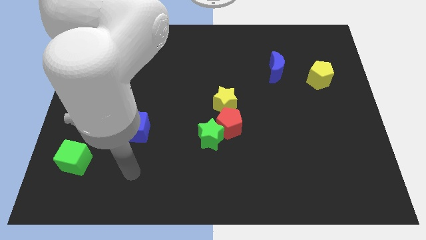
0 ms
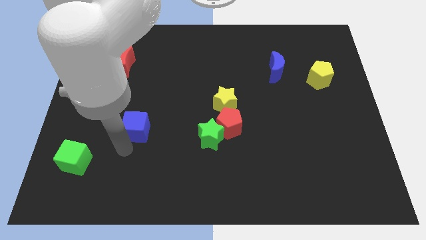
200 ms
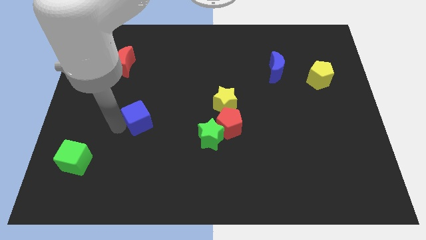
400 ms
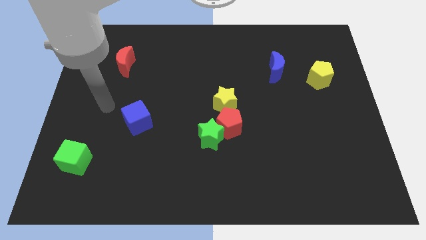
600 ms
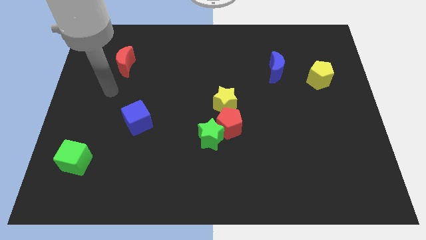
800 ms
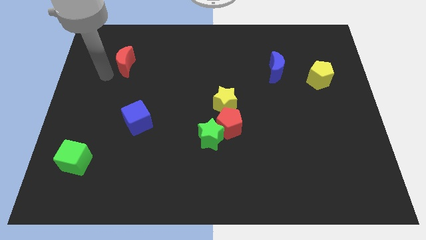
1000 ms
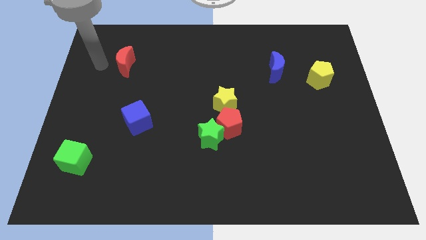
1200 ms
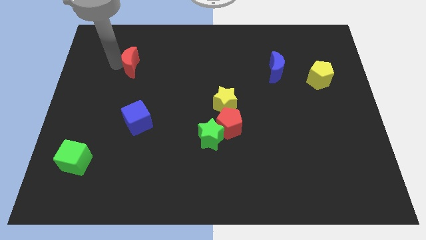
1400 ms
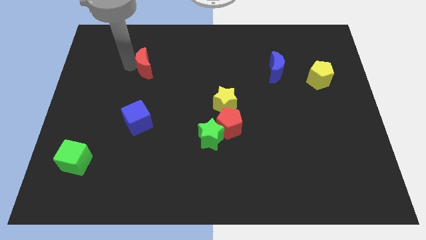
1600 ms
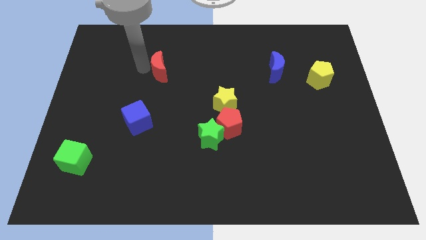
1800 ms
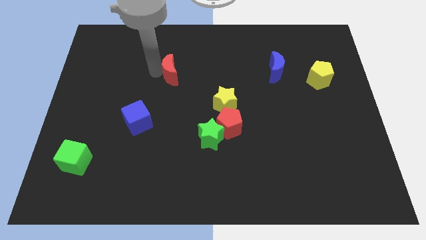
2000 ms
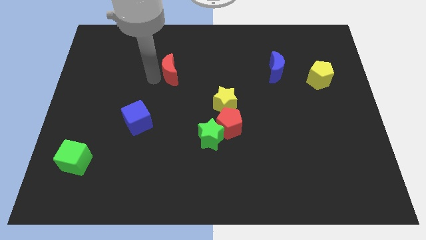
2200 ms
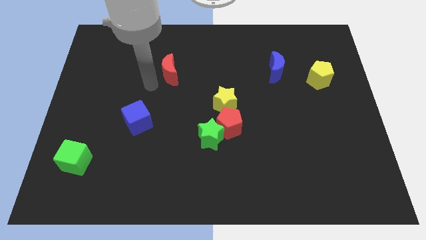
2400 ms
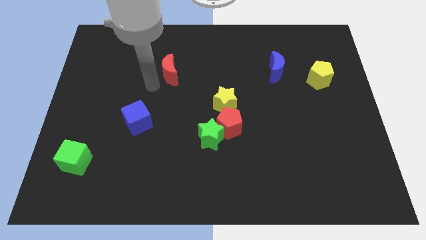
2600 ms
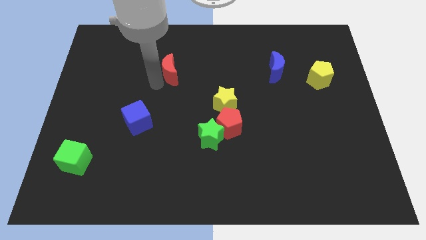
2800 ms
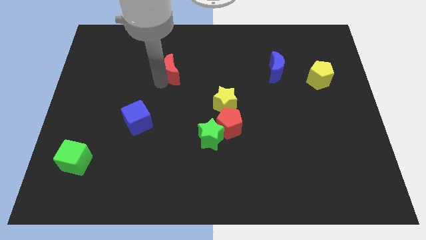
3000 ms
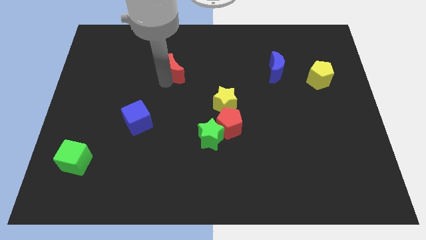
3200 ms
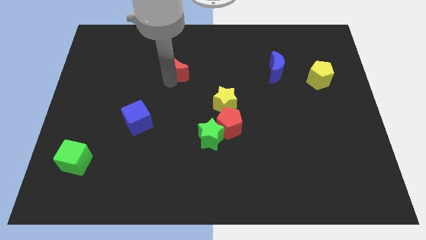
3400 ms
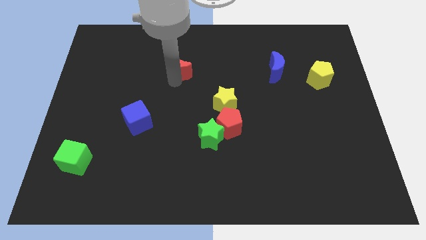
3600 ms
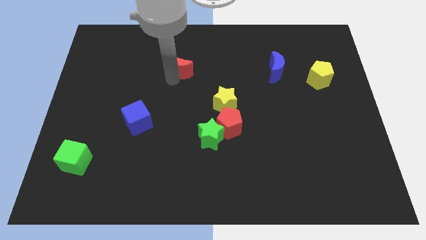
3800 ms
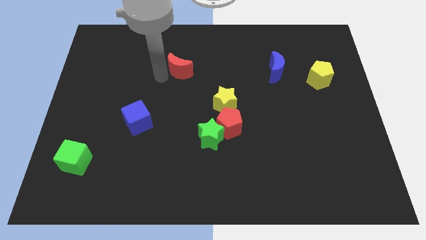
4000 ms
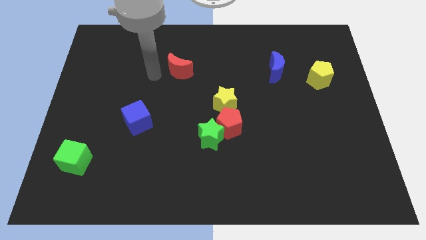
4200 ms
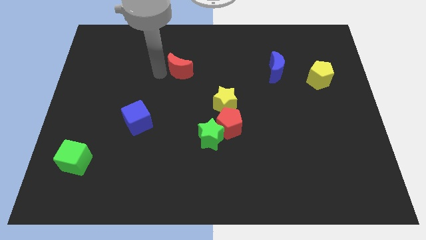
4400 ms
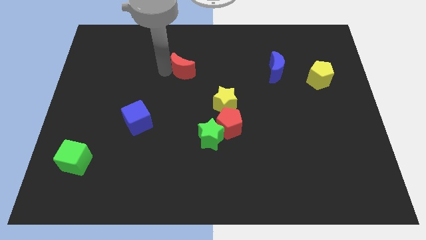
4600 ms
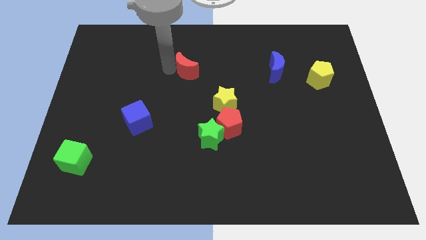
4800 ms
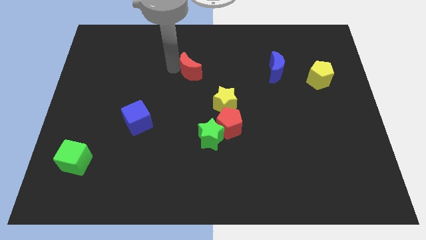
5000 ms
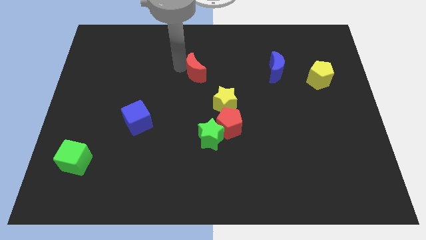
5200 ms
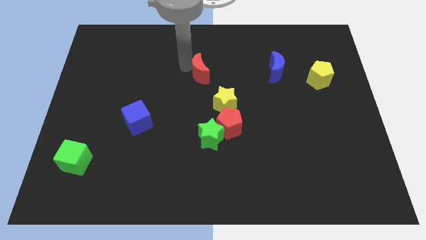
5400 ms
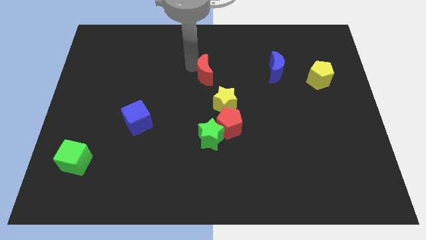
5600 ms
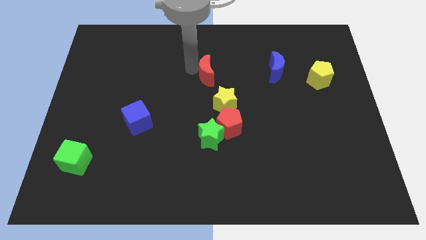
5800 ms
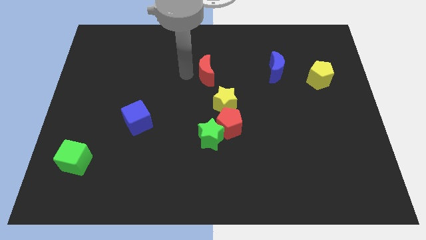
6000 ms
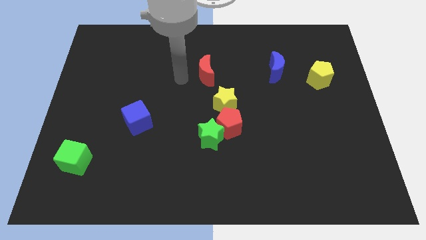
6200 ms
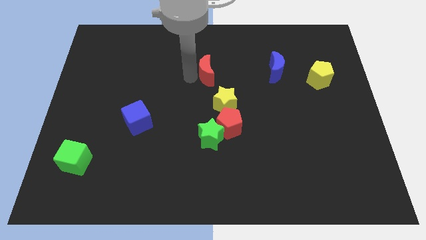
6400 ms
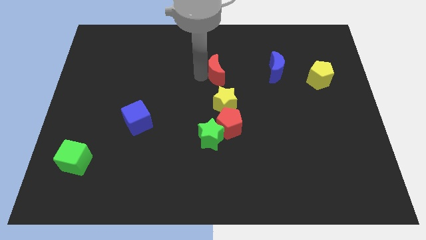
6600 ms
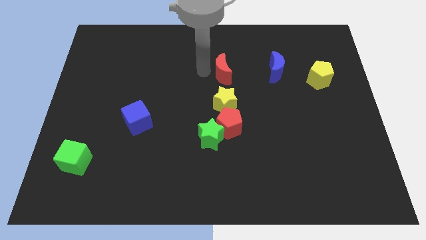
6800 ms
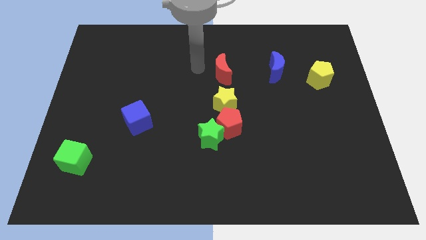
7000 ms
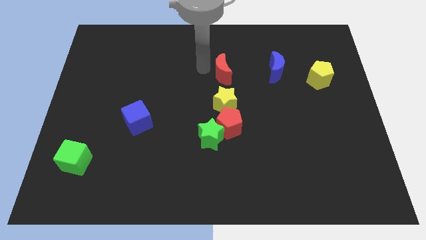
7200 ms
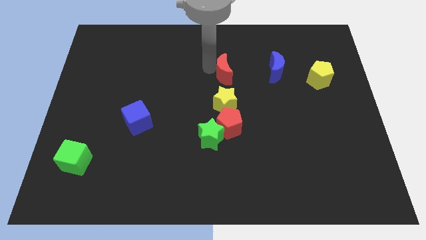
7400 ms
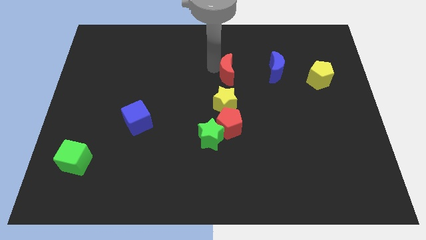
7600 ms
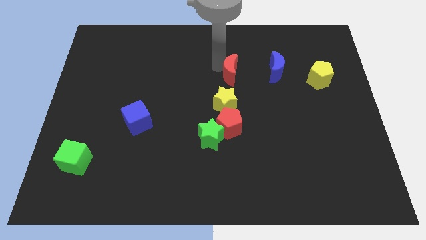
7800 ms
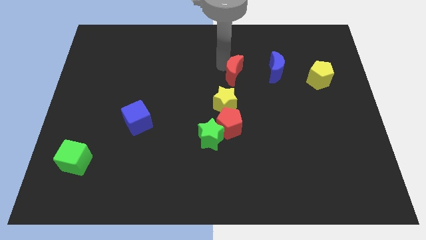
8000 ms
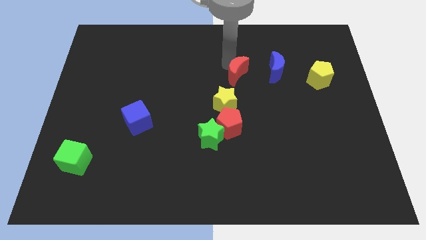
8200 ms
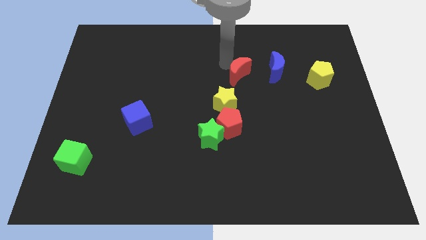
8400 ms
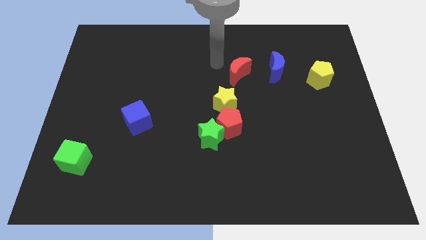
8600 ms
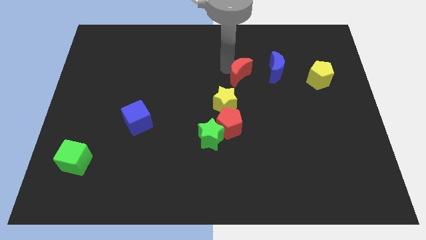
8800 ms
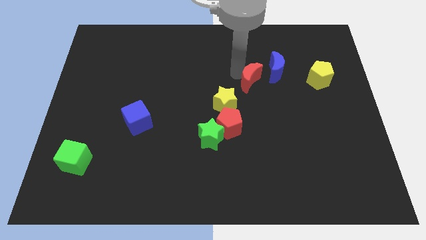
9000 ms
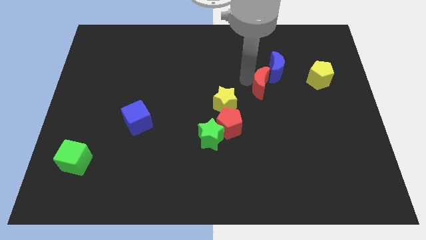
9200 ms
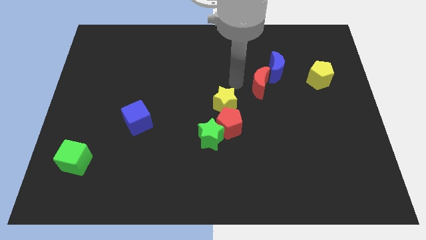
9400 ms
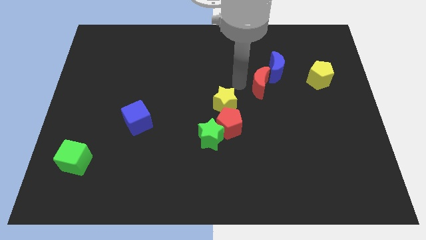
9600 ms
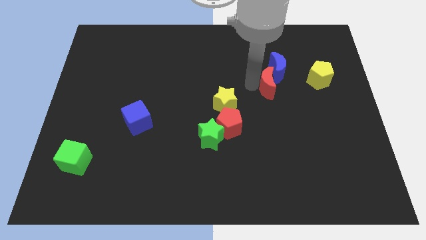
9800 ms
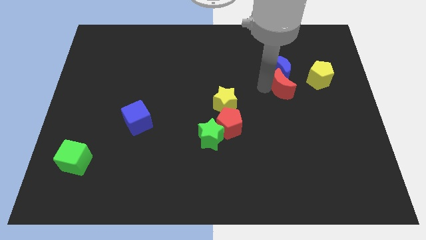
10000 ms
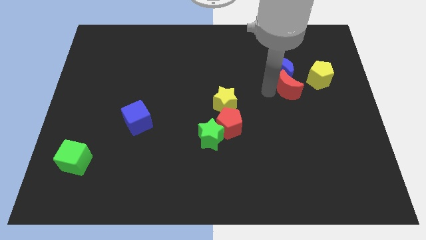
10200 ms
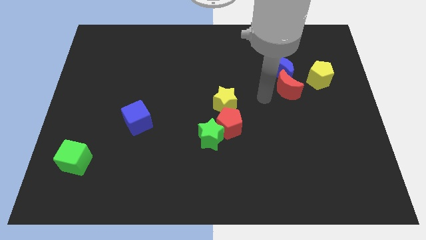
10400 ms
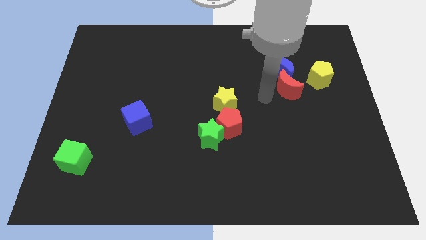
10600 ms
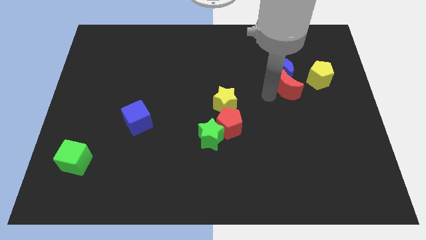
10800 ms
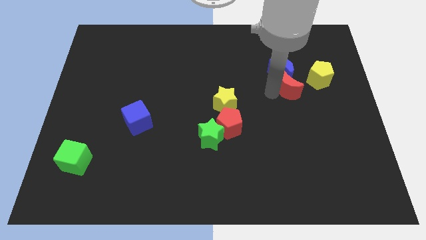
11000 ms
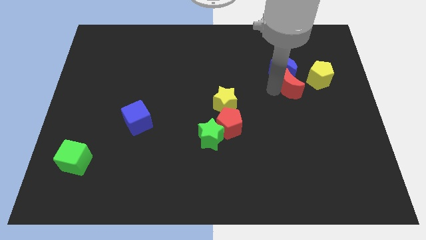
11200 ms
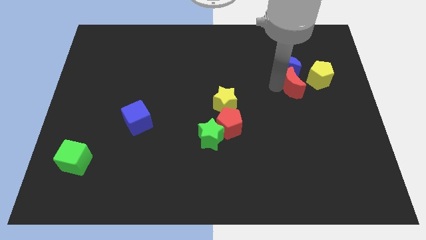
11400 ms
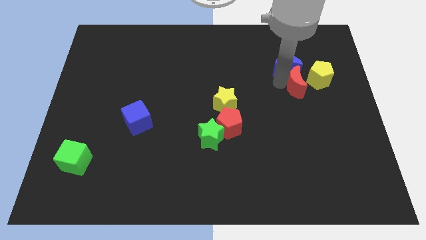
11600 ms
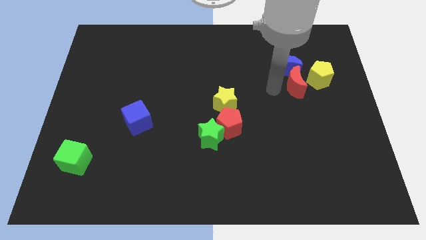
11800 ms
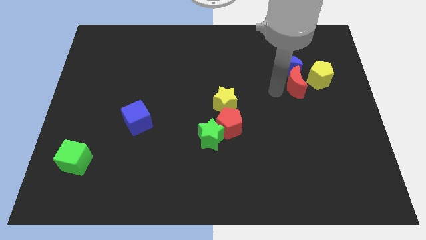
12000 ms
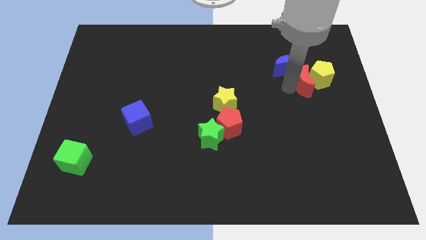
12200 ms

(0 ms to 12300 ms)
put the red moon close to the yellow pentagon

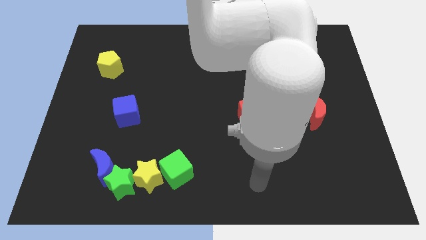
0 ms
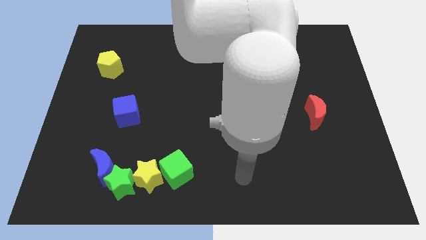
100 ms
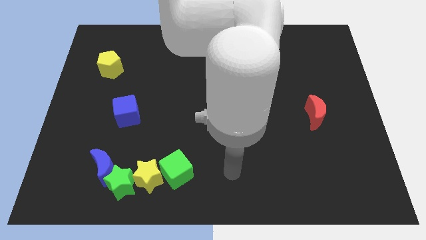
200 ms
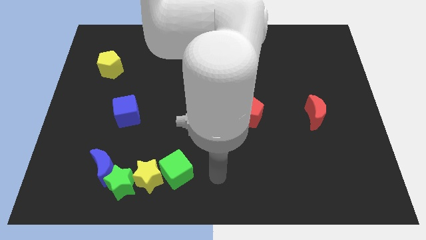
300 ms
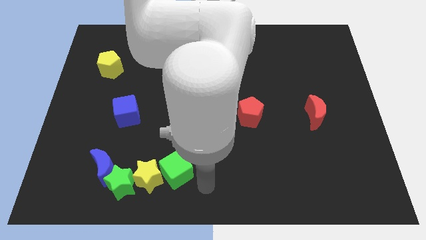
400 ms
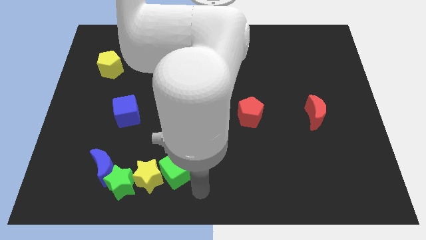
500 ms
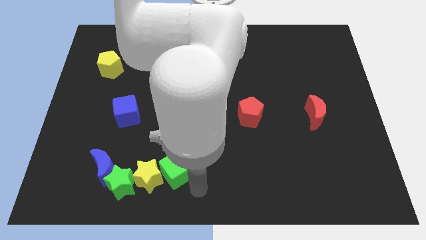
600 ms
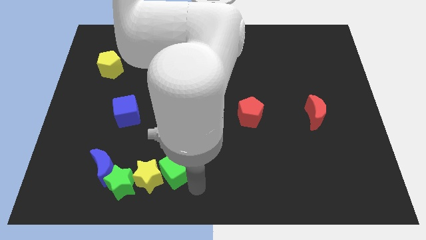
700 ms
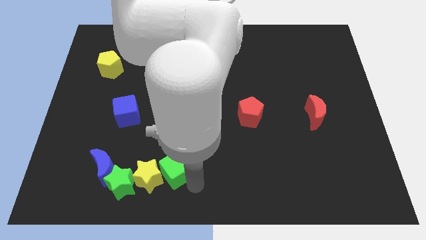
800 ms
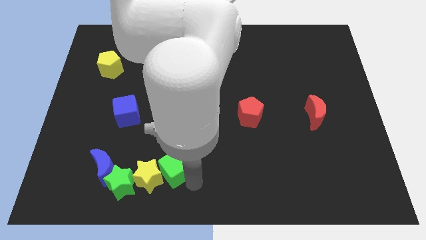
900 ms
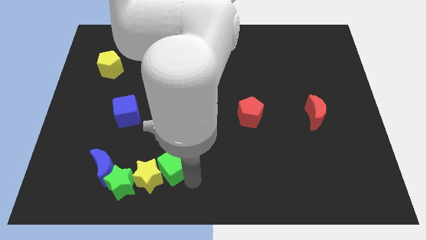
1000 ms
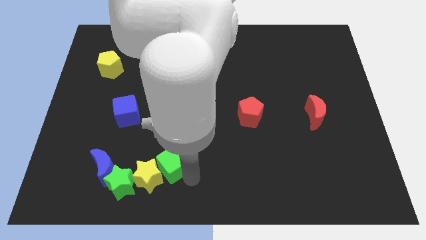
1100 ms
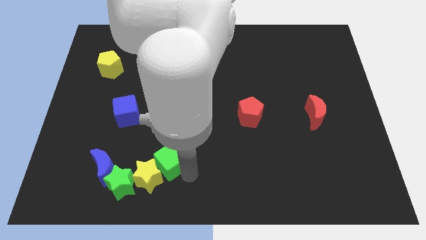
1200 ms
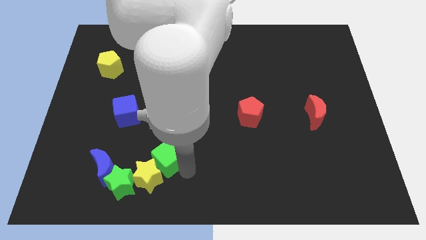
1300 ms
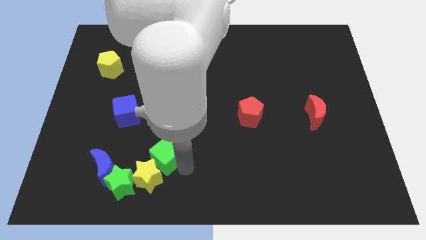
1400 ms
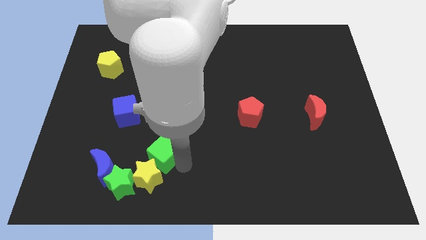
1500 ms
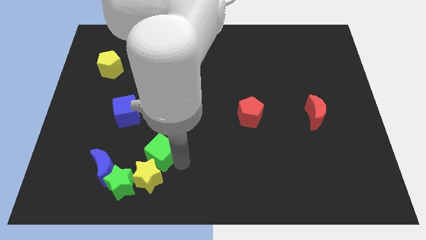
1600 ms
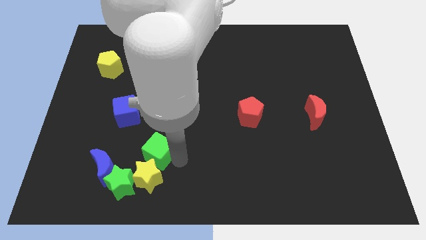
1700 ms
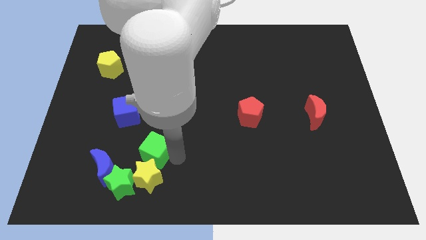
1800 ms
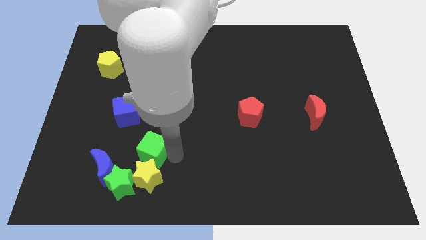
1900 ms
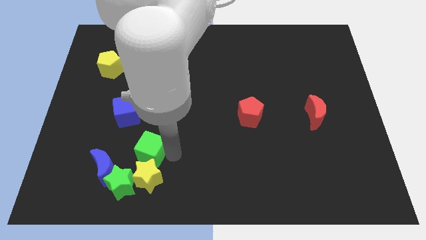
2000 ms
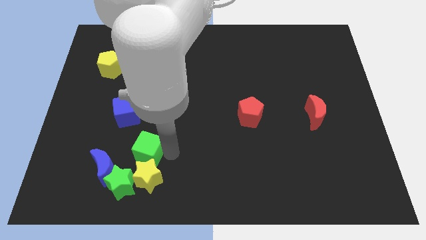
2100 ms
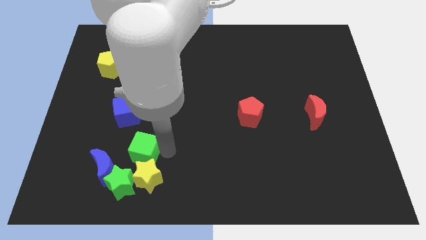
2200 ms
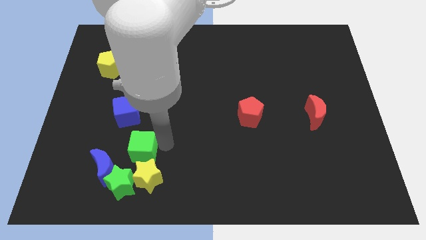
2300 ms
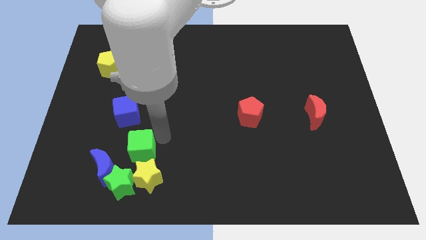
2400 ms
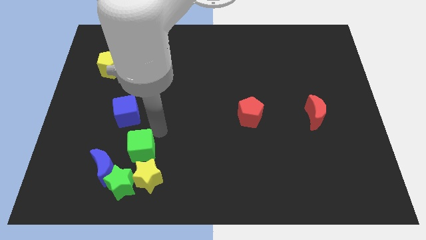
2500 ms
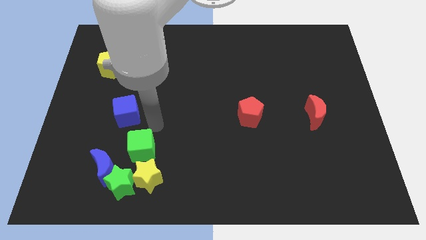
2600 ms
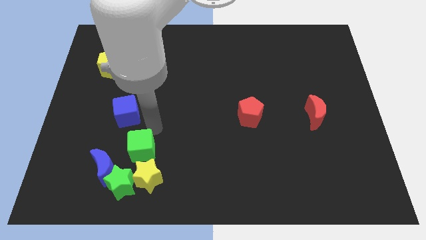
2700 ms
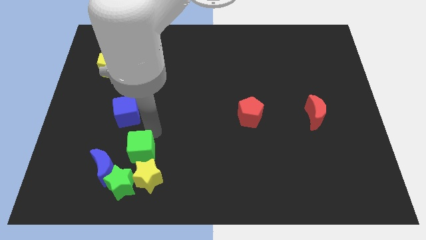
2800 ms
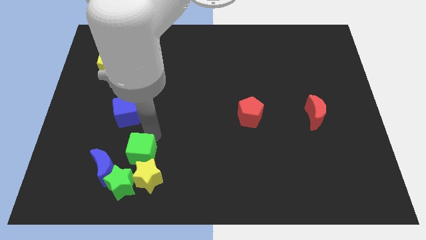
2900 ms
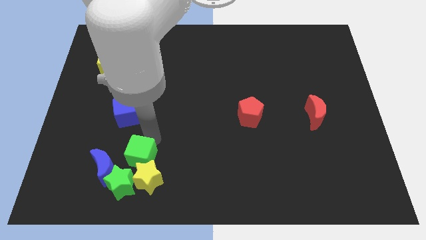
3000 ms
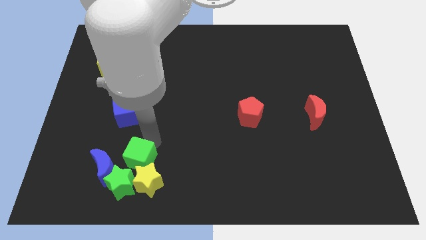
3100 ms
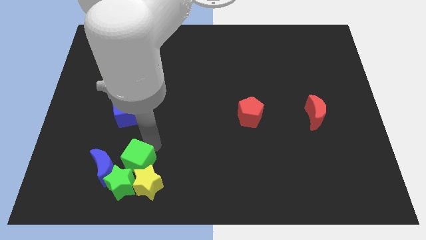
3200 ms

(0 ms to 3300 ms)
slide the green cube next to the green star
